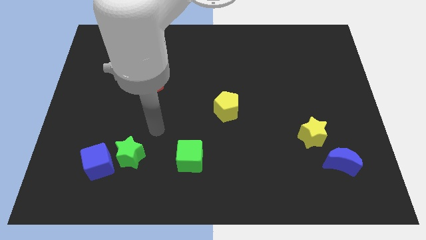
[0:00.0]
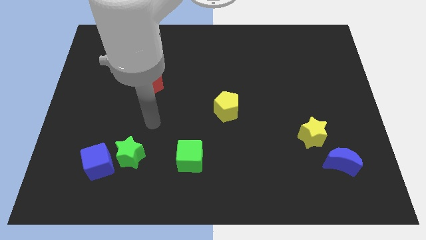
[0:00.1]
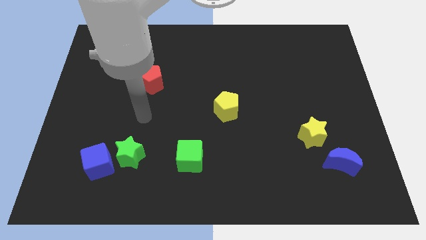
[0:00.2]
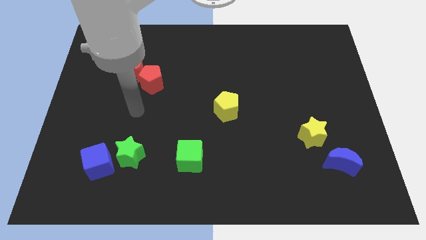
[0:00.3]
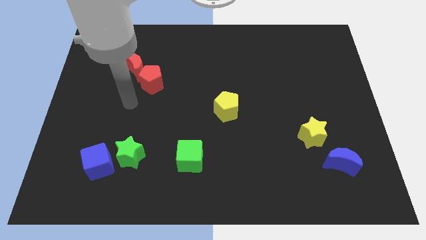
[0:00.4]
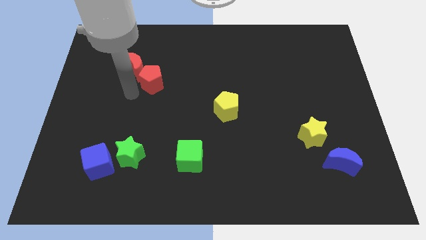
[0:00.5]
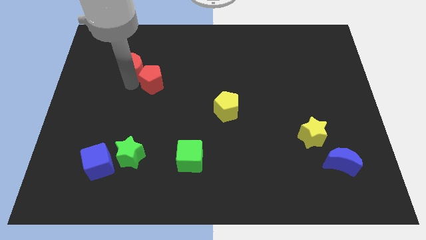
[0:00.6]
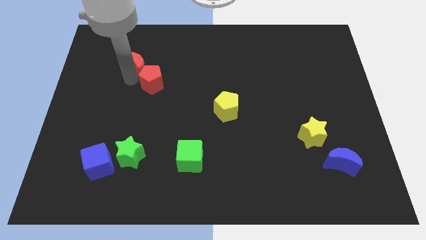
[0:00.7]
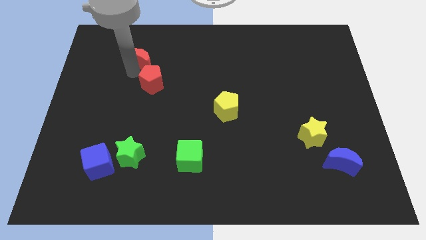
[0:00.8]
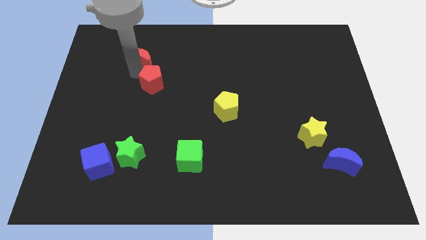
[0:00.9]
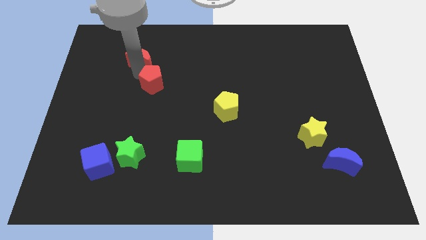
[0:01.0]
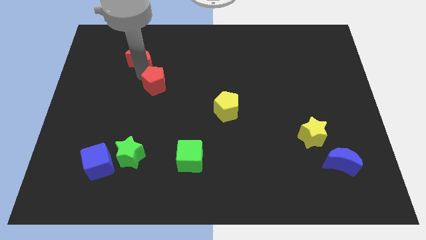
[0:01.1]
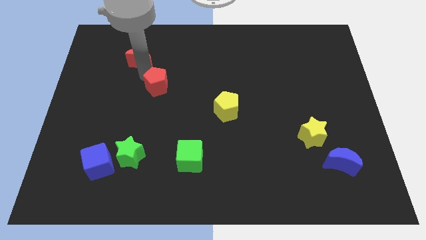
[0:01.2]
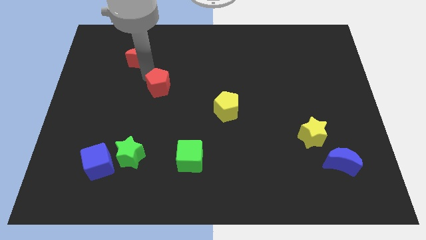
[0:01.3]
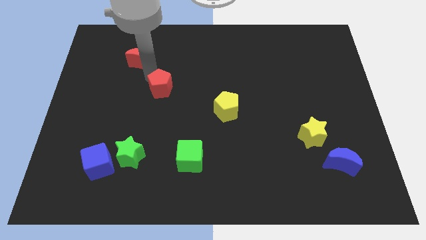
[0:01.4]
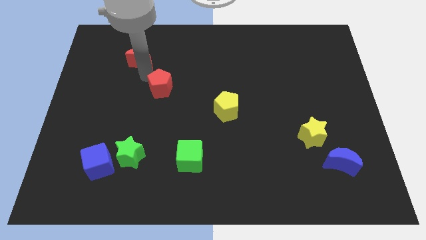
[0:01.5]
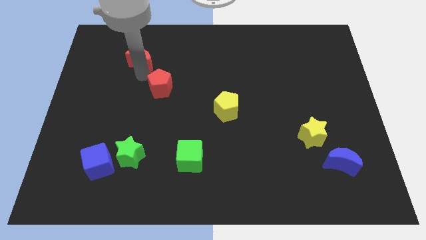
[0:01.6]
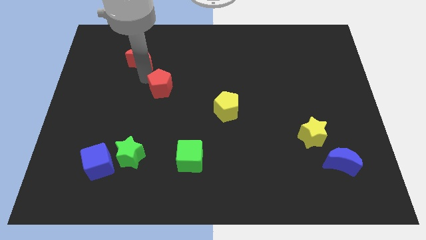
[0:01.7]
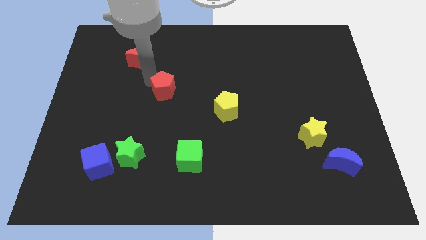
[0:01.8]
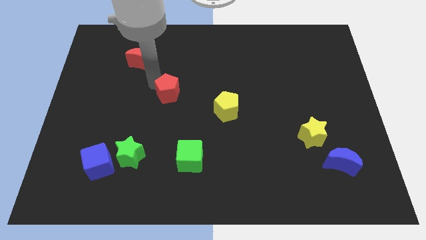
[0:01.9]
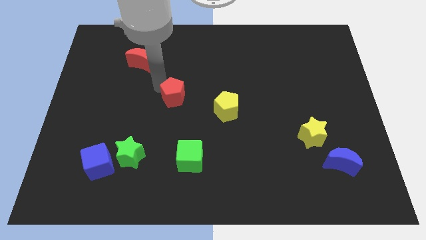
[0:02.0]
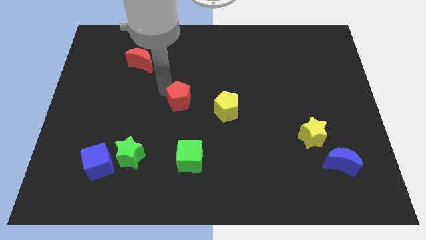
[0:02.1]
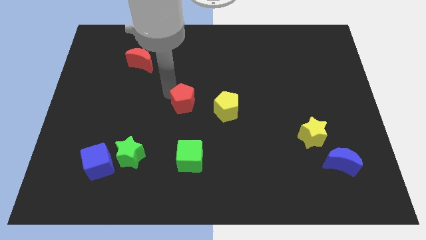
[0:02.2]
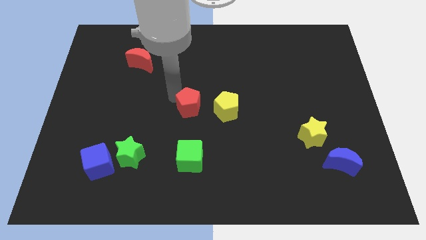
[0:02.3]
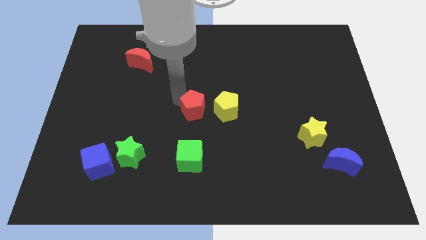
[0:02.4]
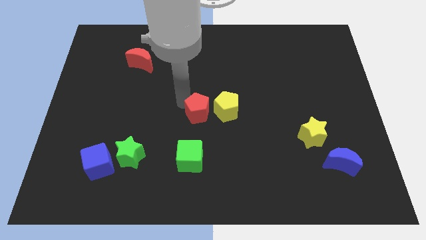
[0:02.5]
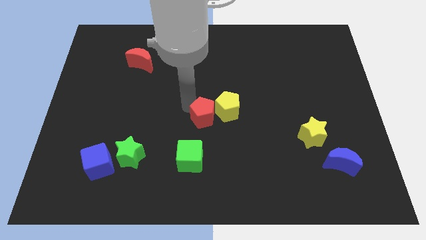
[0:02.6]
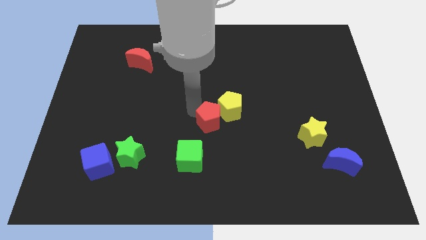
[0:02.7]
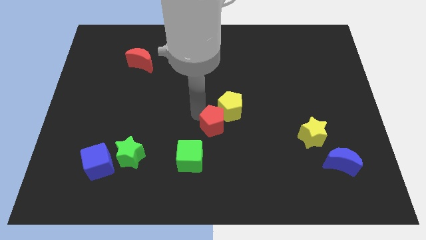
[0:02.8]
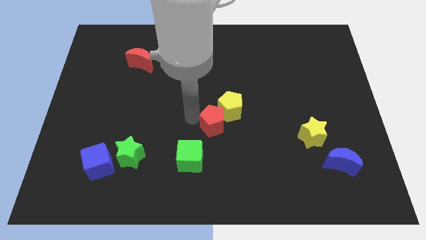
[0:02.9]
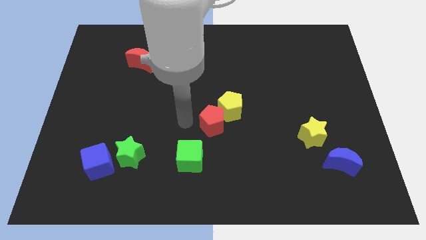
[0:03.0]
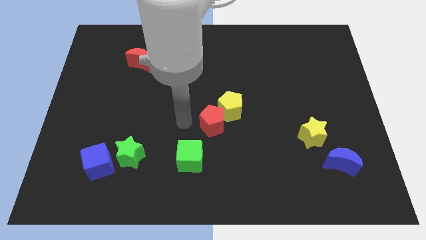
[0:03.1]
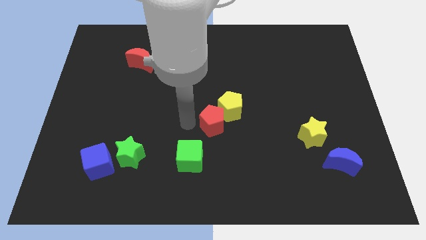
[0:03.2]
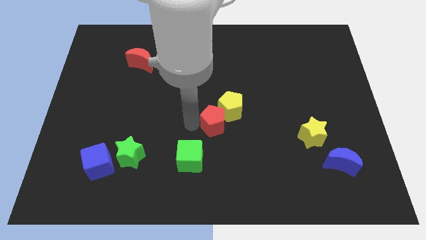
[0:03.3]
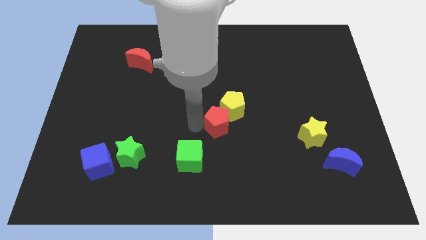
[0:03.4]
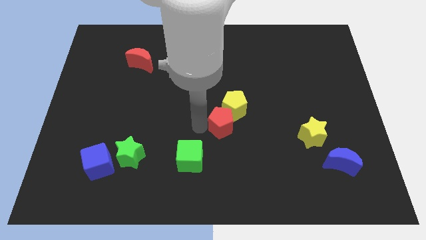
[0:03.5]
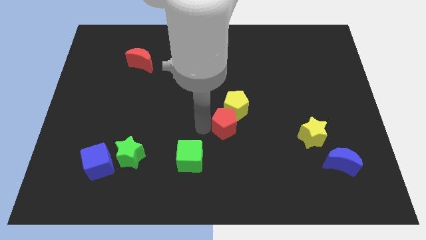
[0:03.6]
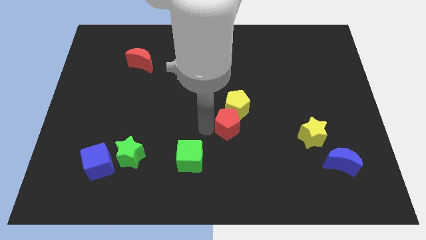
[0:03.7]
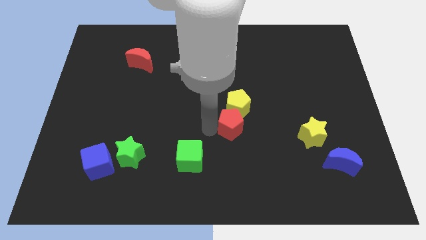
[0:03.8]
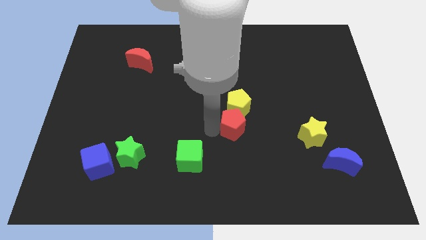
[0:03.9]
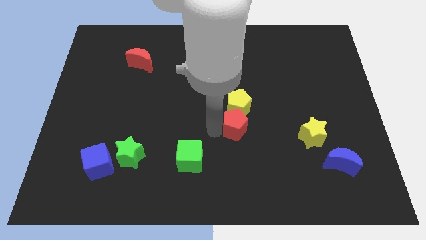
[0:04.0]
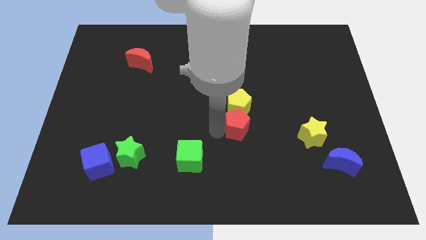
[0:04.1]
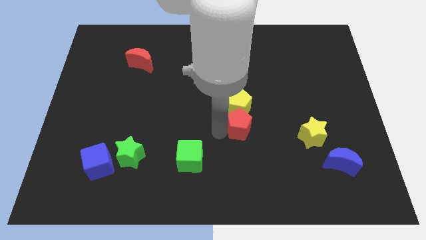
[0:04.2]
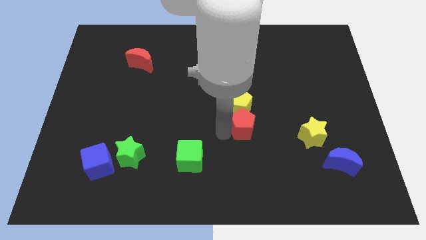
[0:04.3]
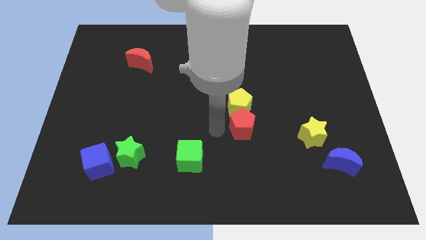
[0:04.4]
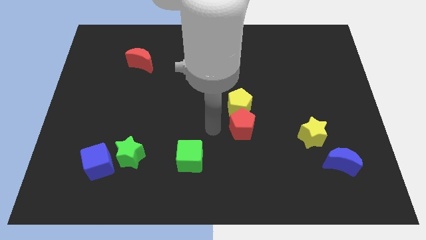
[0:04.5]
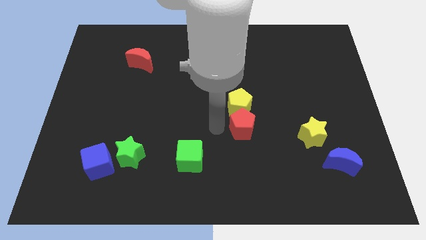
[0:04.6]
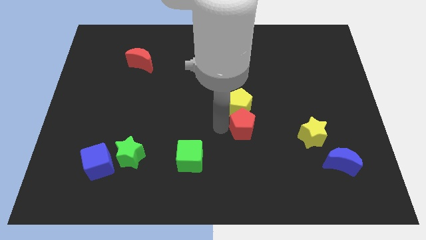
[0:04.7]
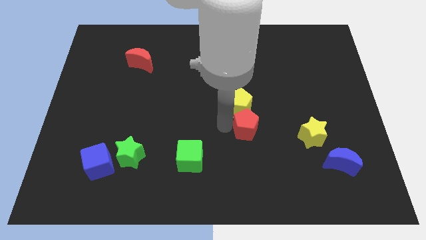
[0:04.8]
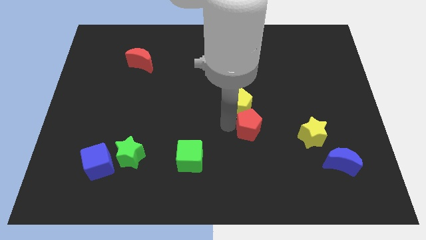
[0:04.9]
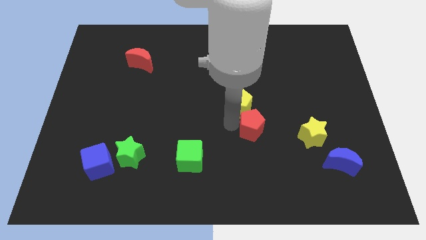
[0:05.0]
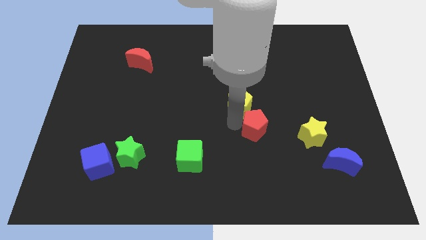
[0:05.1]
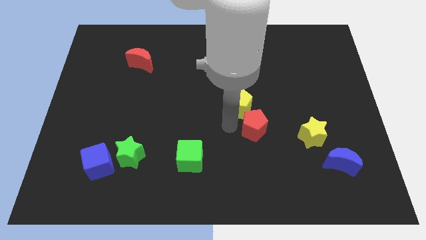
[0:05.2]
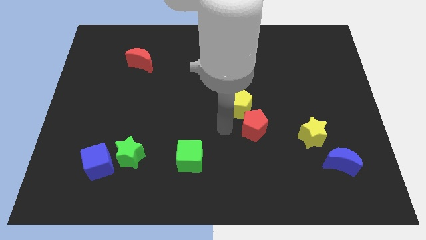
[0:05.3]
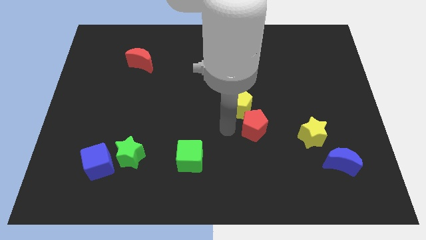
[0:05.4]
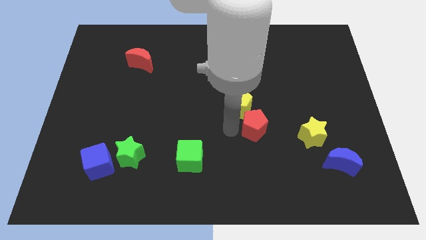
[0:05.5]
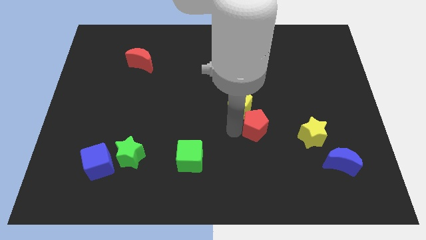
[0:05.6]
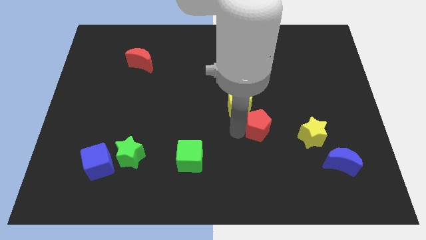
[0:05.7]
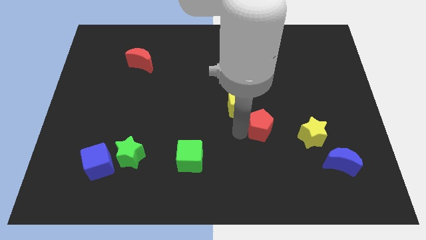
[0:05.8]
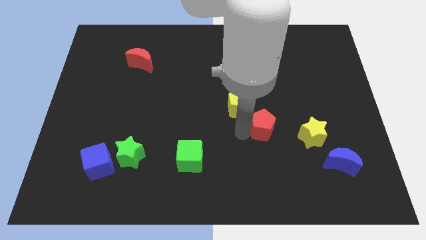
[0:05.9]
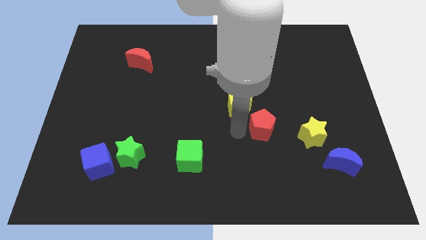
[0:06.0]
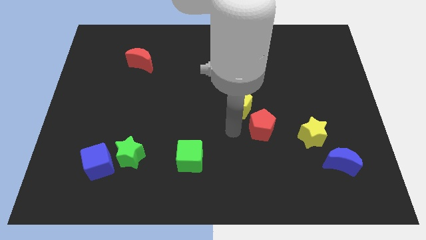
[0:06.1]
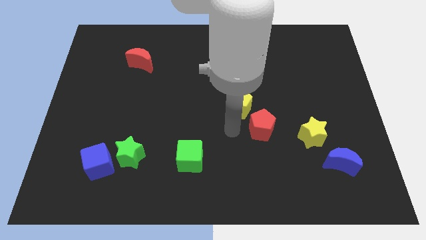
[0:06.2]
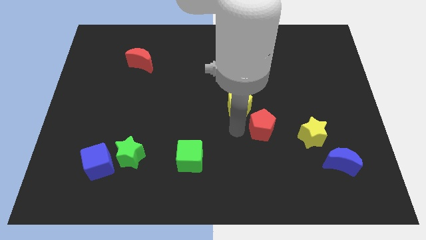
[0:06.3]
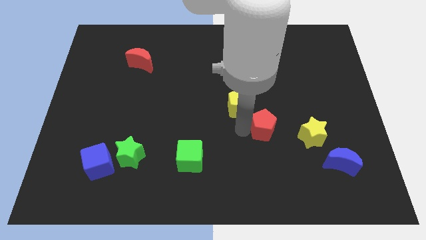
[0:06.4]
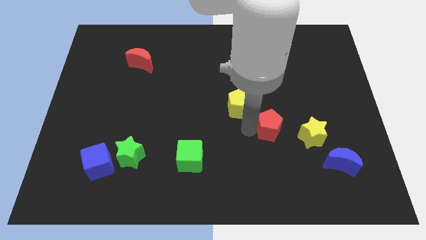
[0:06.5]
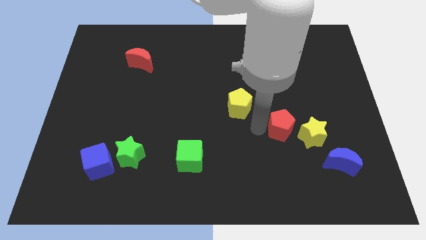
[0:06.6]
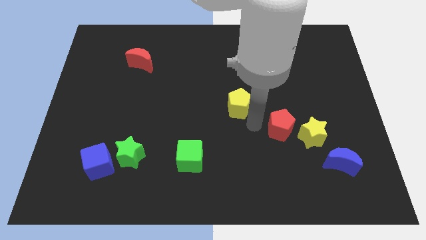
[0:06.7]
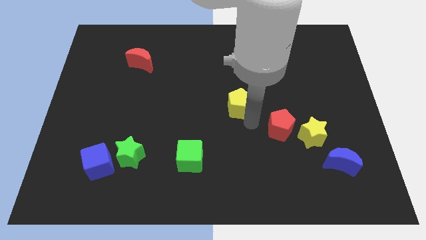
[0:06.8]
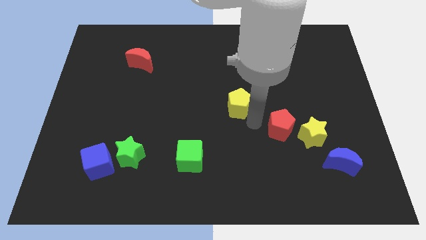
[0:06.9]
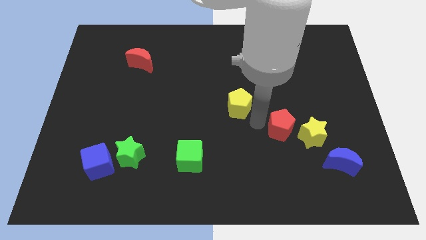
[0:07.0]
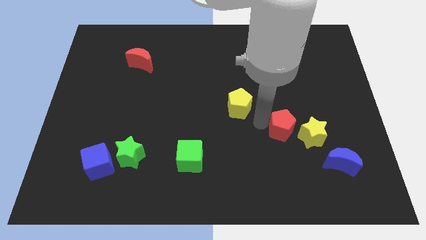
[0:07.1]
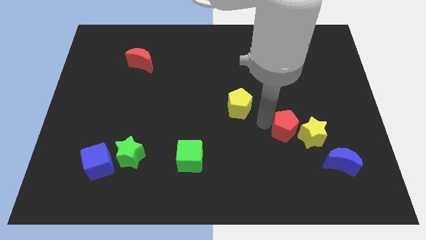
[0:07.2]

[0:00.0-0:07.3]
slide the red pentagon close to the yellow star
